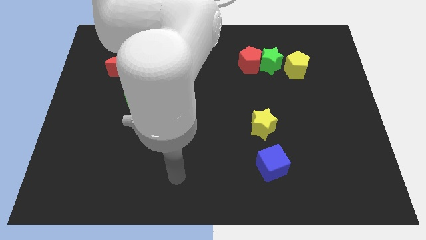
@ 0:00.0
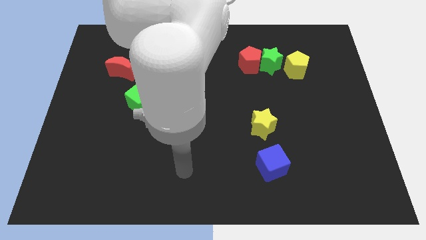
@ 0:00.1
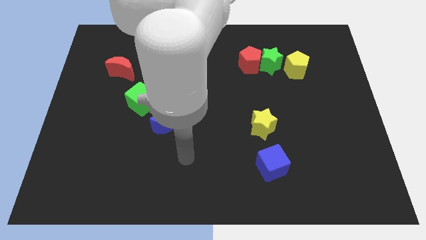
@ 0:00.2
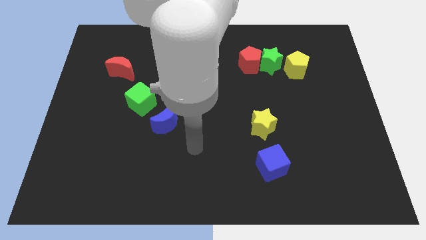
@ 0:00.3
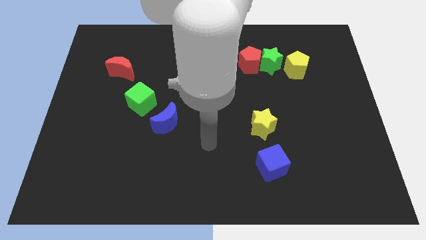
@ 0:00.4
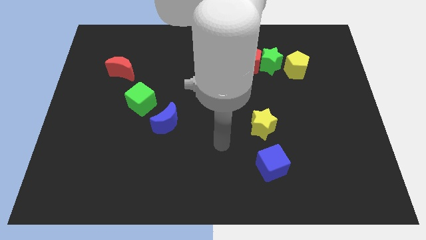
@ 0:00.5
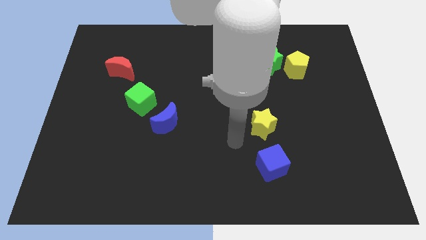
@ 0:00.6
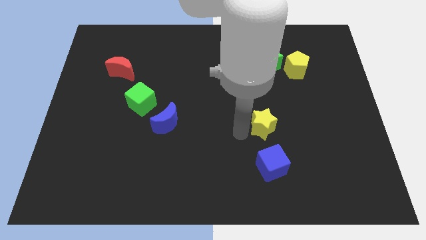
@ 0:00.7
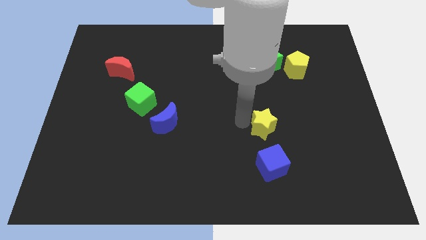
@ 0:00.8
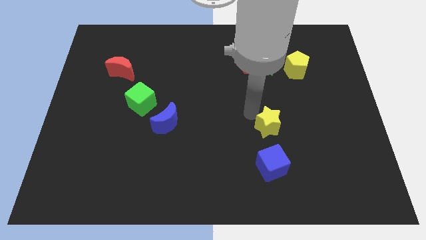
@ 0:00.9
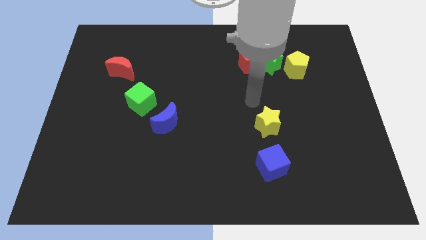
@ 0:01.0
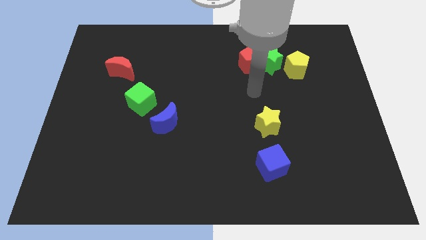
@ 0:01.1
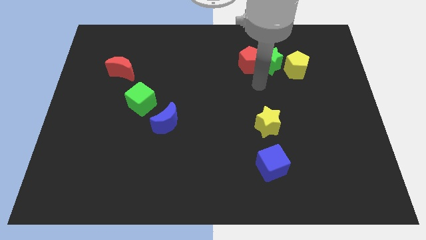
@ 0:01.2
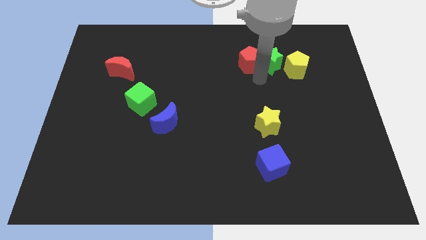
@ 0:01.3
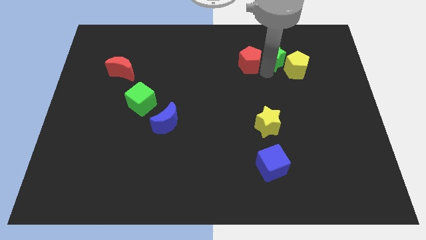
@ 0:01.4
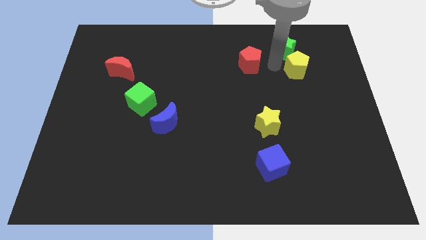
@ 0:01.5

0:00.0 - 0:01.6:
move the red pentagon away from the green star

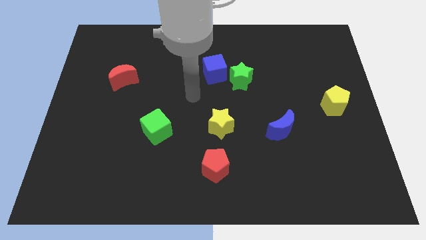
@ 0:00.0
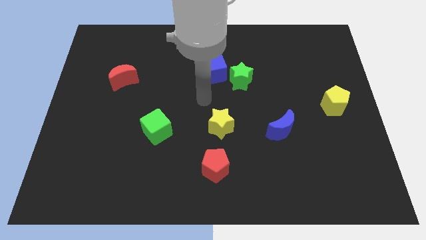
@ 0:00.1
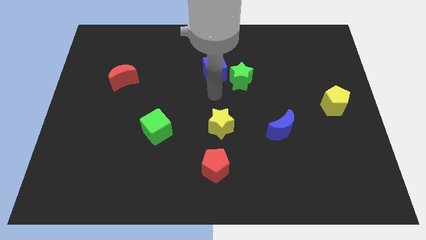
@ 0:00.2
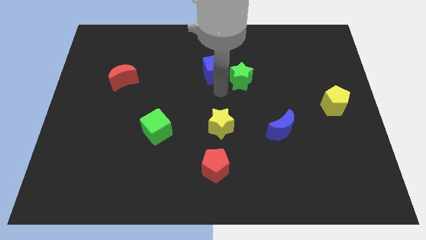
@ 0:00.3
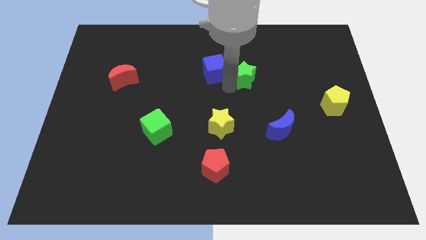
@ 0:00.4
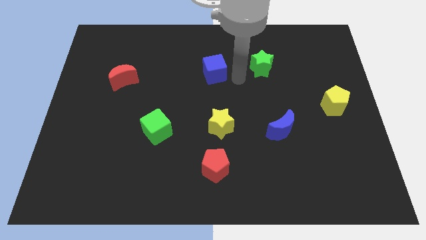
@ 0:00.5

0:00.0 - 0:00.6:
pull the blue cube apart from the green star

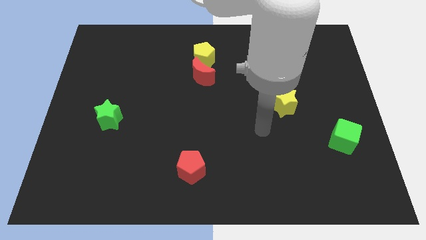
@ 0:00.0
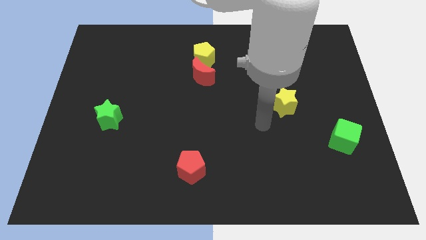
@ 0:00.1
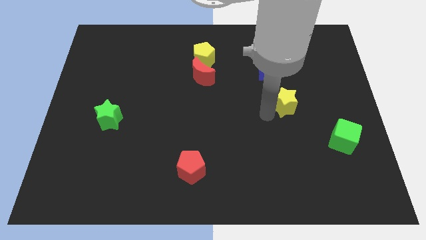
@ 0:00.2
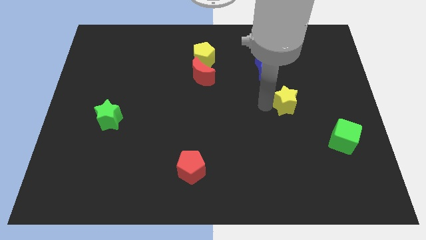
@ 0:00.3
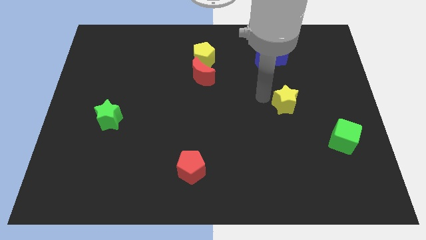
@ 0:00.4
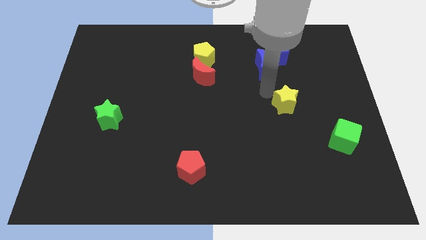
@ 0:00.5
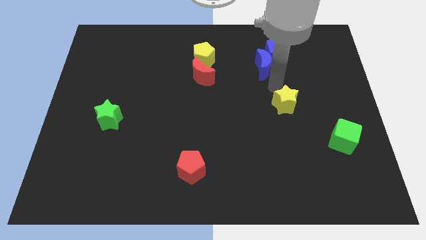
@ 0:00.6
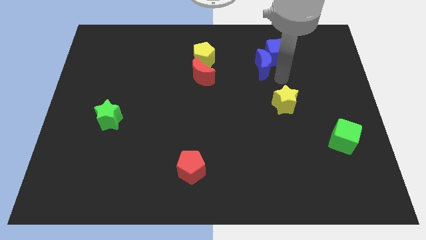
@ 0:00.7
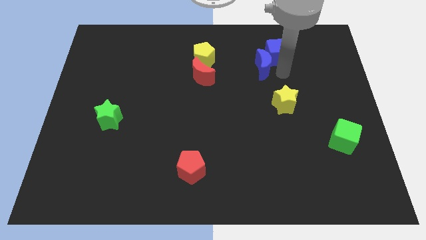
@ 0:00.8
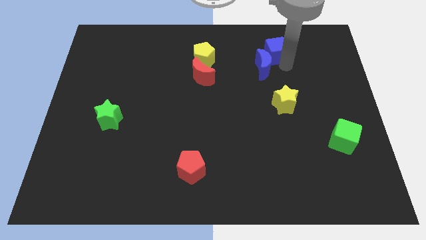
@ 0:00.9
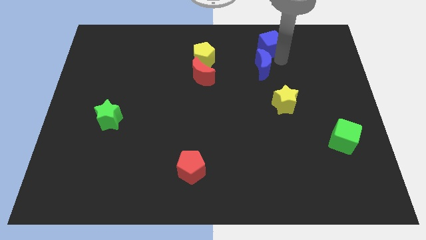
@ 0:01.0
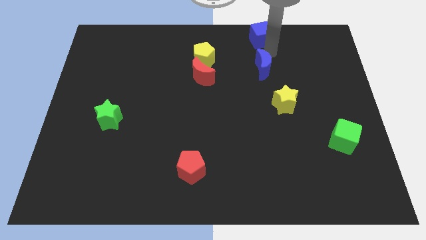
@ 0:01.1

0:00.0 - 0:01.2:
separate the blue moon from the blue cube

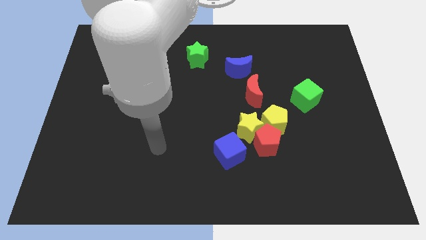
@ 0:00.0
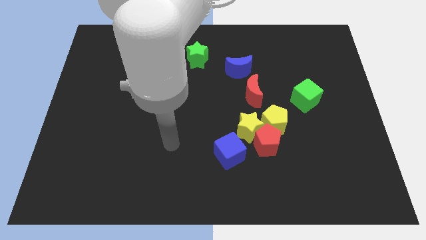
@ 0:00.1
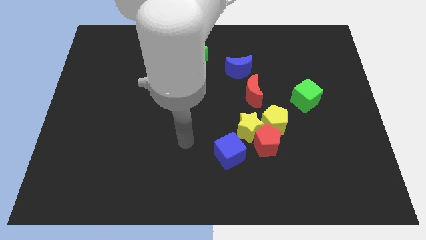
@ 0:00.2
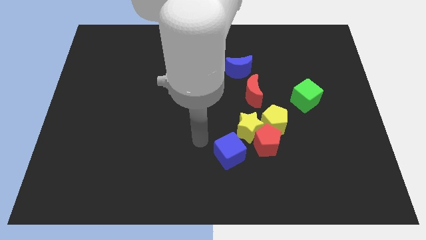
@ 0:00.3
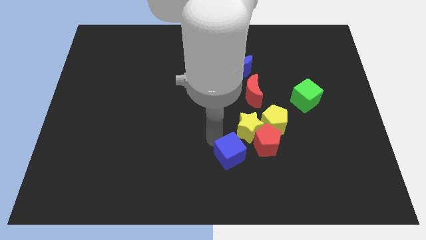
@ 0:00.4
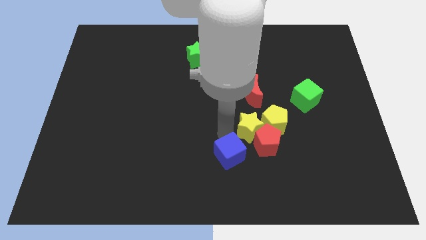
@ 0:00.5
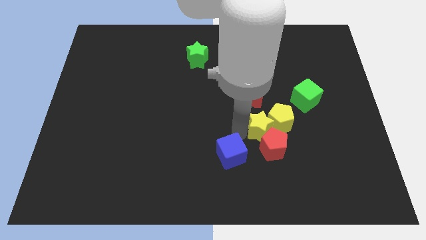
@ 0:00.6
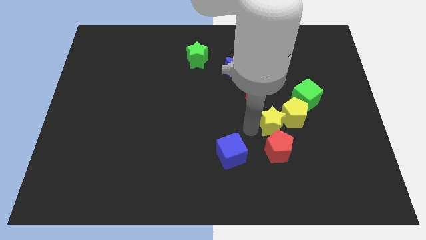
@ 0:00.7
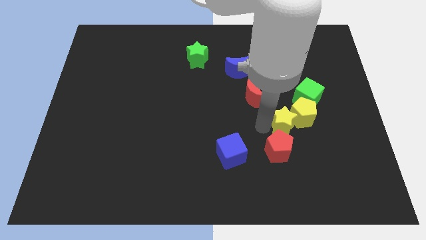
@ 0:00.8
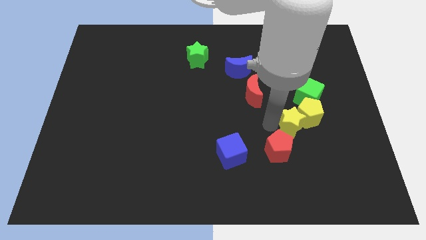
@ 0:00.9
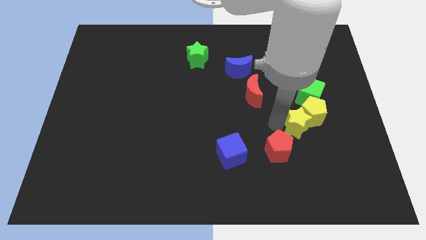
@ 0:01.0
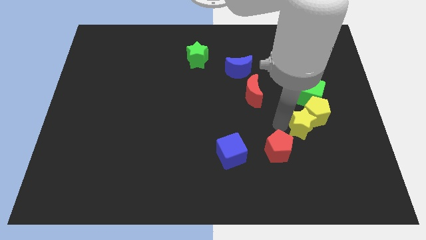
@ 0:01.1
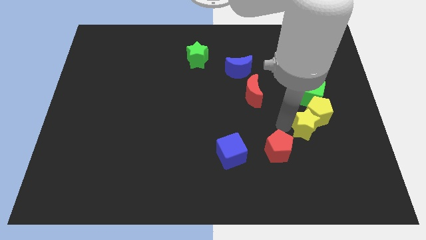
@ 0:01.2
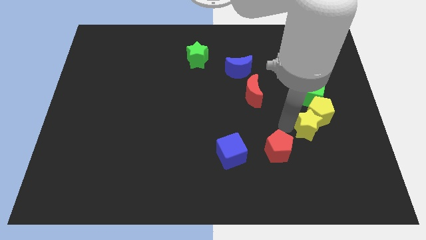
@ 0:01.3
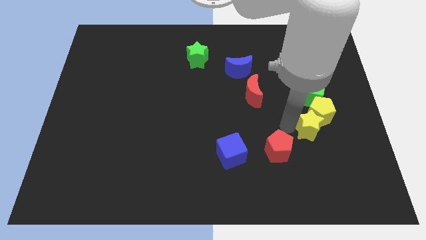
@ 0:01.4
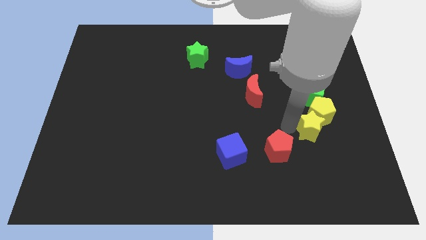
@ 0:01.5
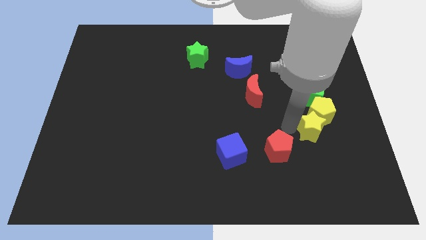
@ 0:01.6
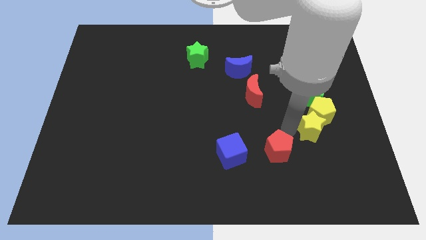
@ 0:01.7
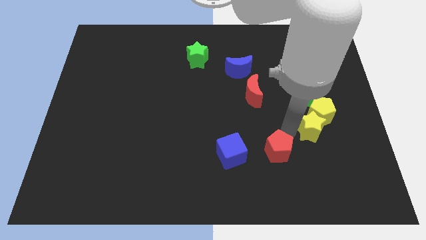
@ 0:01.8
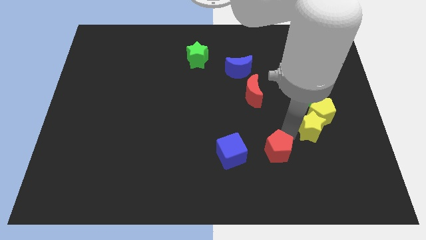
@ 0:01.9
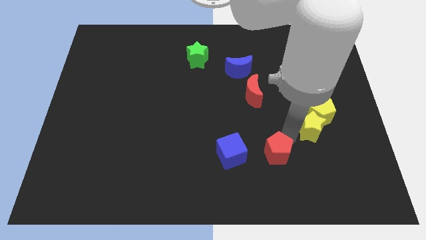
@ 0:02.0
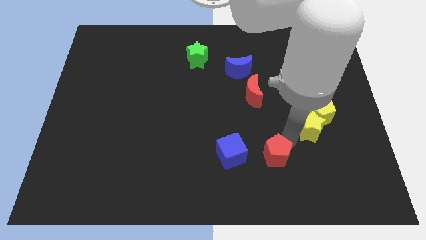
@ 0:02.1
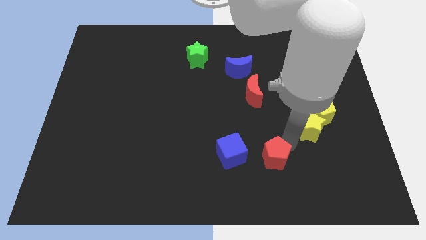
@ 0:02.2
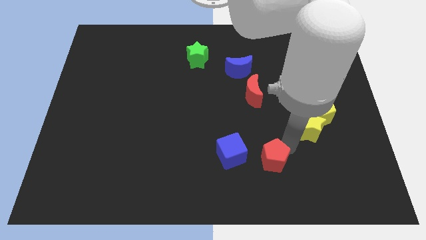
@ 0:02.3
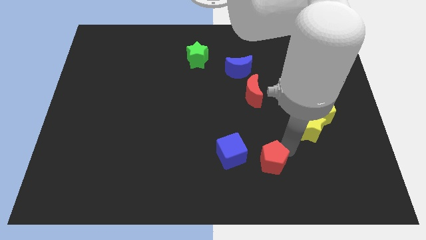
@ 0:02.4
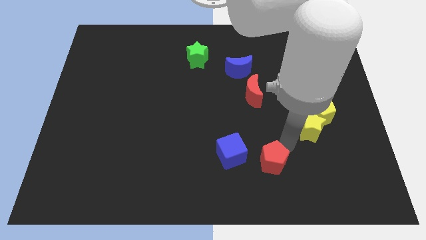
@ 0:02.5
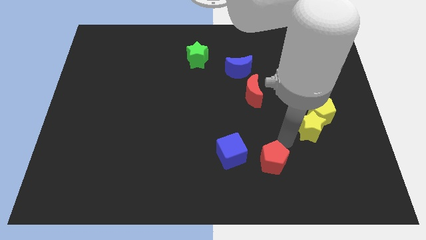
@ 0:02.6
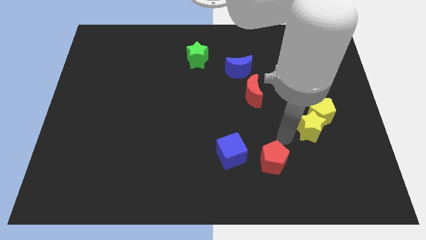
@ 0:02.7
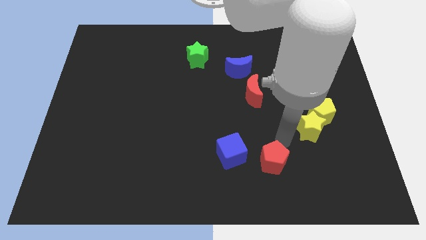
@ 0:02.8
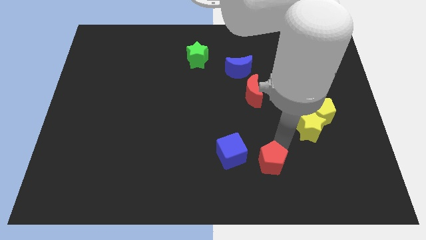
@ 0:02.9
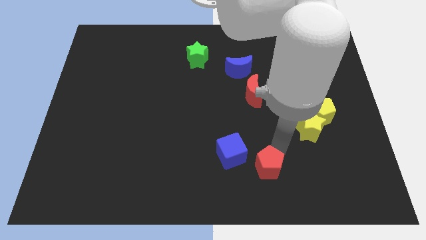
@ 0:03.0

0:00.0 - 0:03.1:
pull the red pentagon apart from the clump

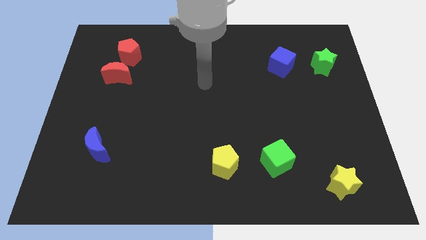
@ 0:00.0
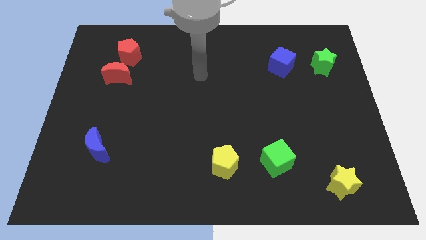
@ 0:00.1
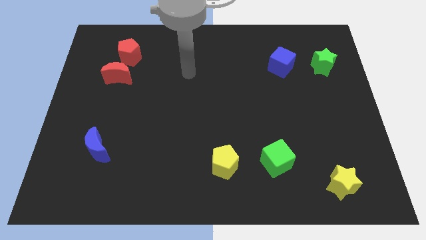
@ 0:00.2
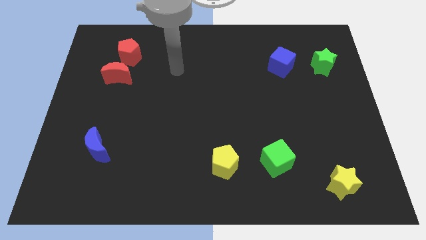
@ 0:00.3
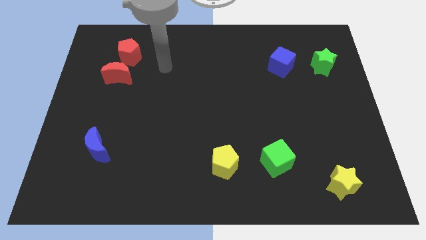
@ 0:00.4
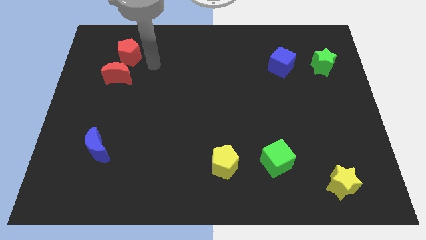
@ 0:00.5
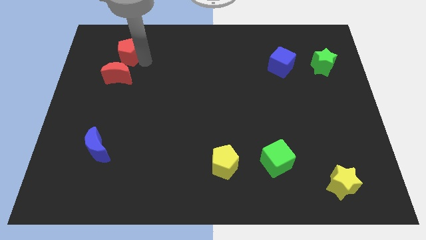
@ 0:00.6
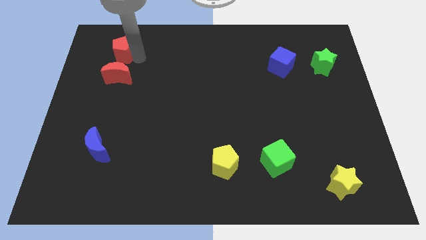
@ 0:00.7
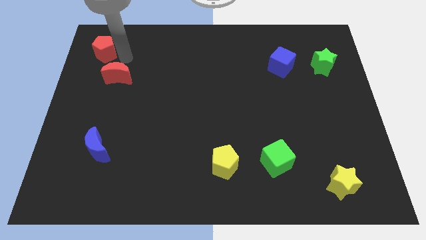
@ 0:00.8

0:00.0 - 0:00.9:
pull the red moon apart from the red pentagon

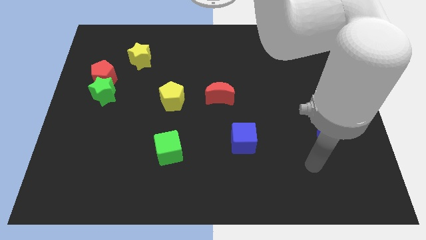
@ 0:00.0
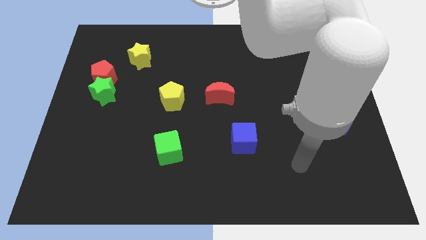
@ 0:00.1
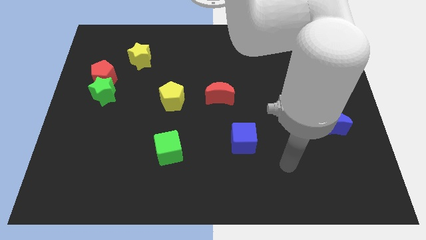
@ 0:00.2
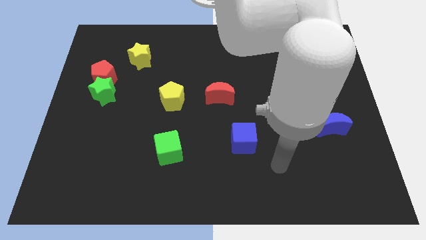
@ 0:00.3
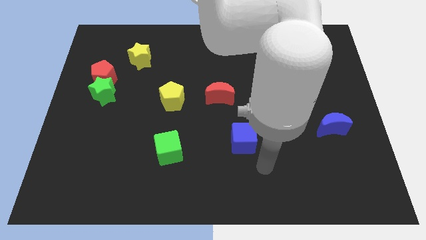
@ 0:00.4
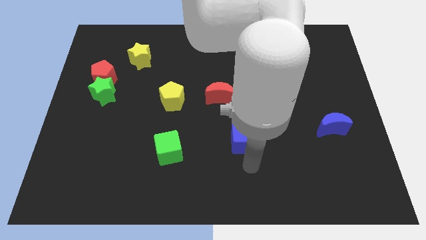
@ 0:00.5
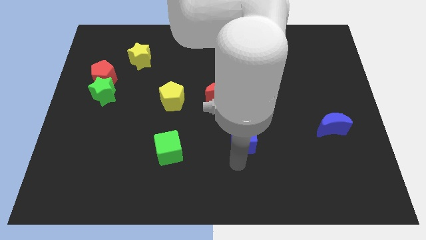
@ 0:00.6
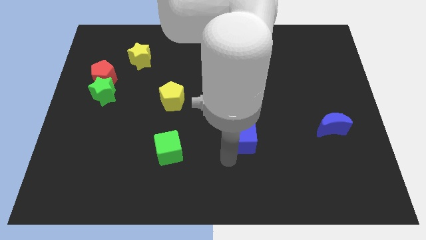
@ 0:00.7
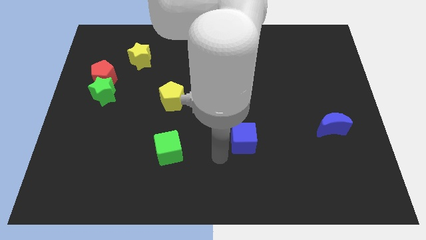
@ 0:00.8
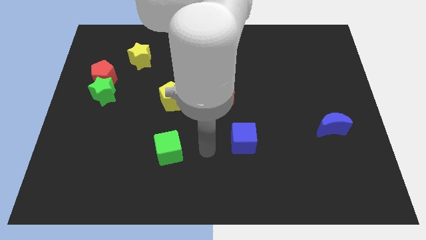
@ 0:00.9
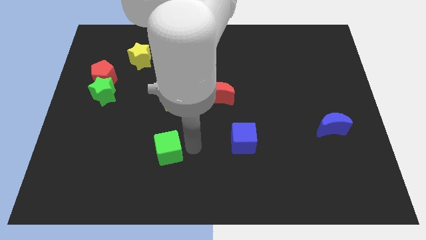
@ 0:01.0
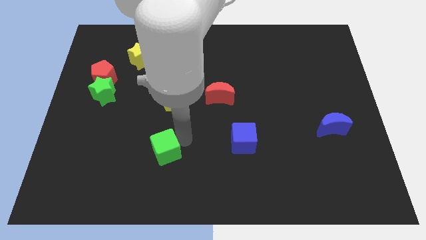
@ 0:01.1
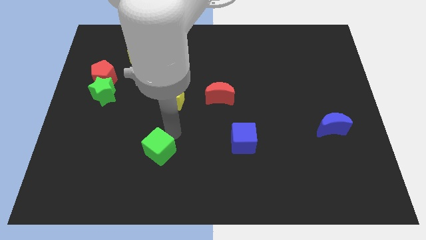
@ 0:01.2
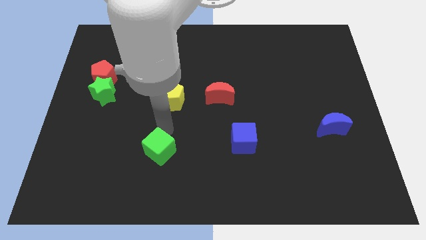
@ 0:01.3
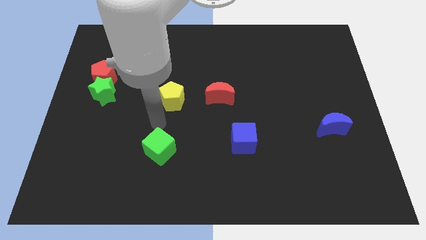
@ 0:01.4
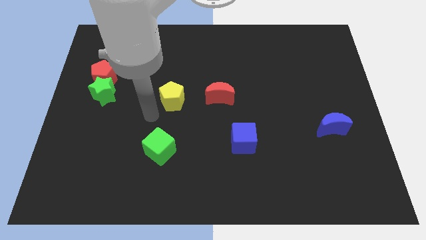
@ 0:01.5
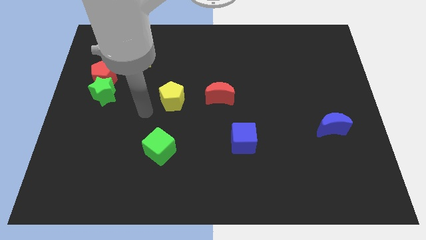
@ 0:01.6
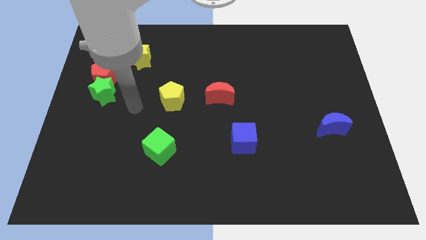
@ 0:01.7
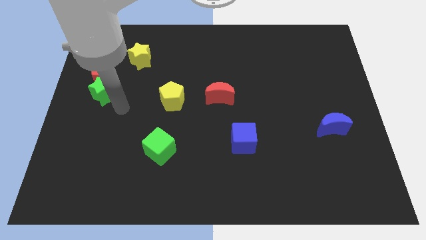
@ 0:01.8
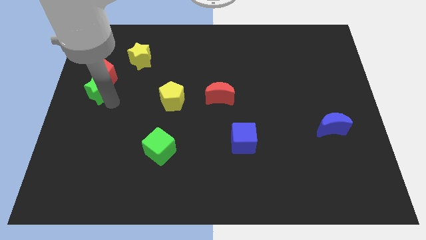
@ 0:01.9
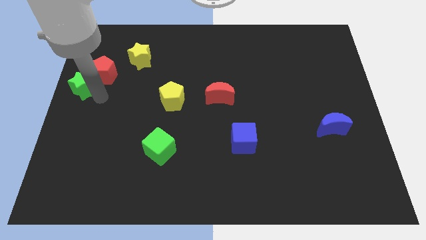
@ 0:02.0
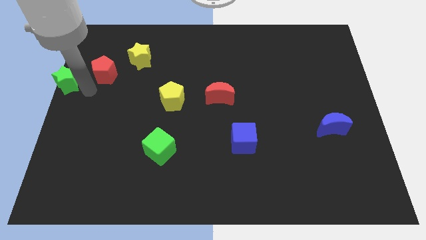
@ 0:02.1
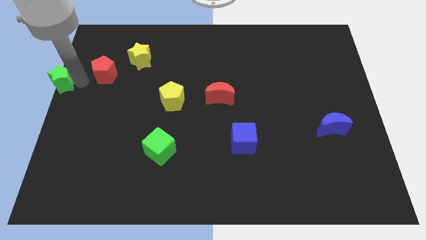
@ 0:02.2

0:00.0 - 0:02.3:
pull the red pentagon apart from the green star
